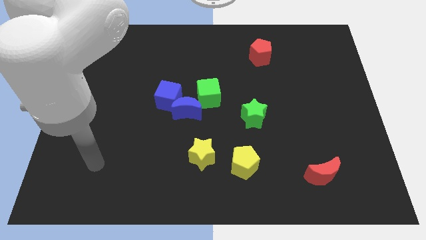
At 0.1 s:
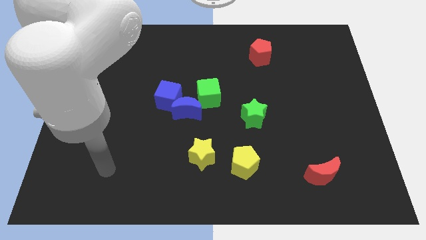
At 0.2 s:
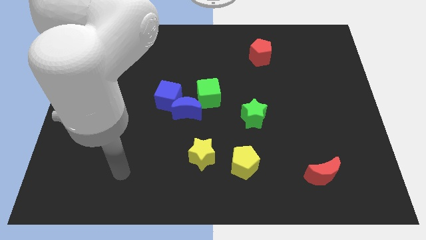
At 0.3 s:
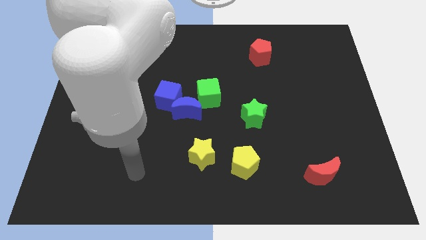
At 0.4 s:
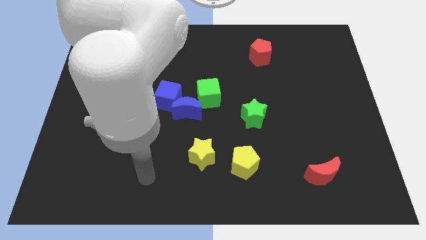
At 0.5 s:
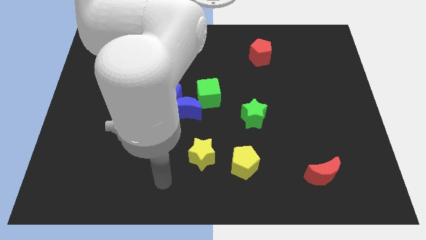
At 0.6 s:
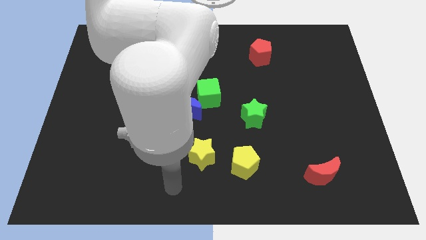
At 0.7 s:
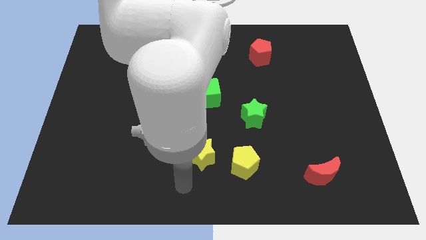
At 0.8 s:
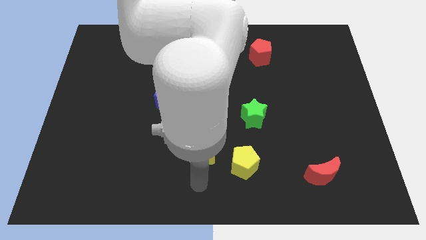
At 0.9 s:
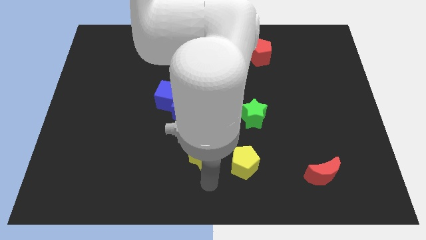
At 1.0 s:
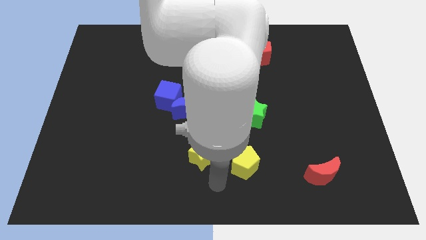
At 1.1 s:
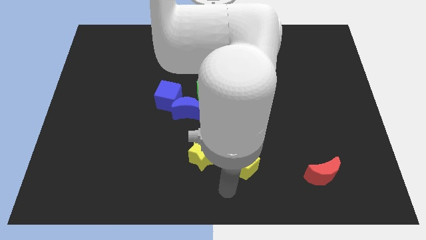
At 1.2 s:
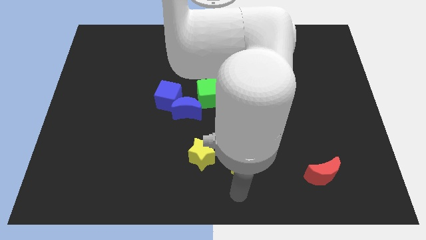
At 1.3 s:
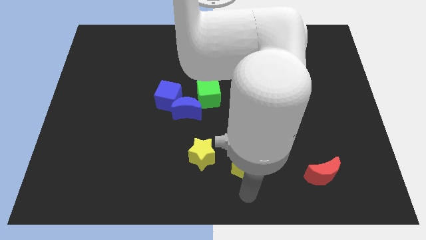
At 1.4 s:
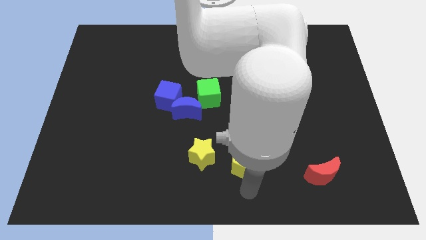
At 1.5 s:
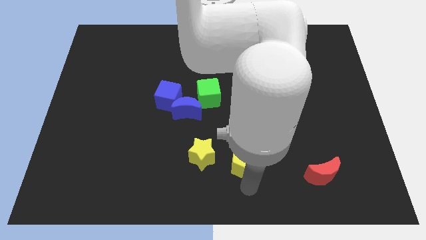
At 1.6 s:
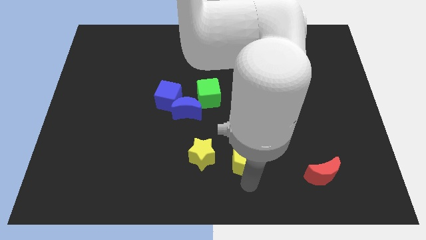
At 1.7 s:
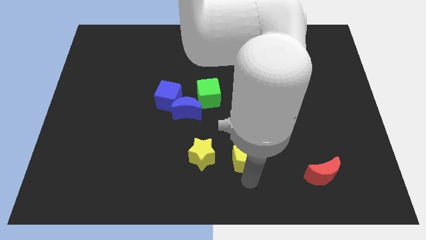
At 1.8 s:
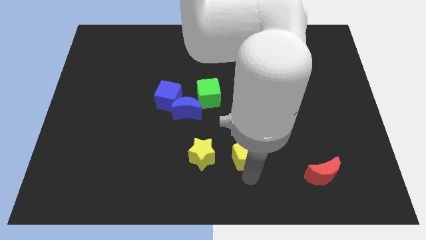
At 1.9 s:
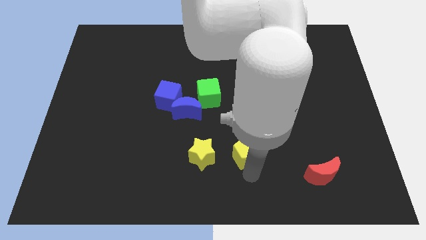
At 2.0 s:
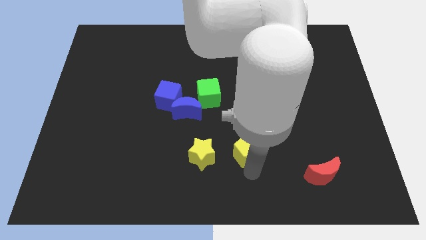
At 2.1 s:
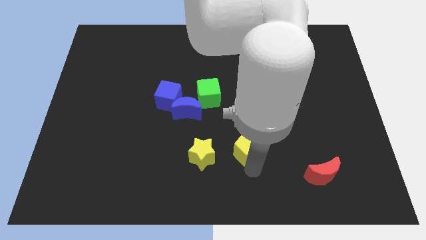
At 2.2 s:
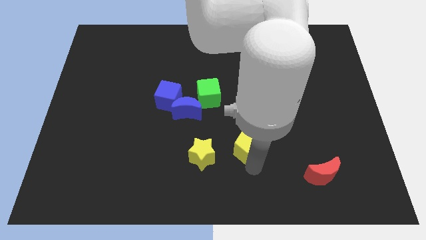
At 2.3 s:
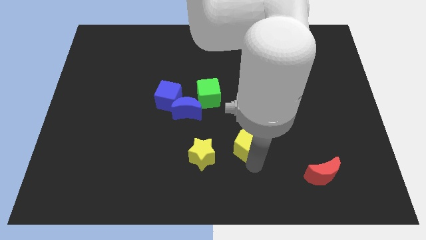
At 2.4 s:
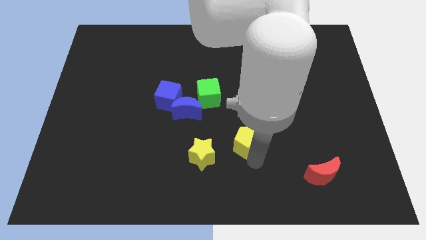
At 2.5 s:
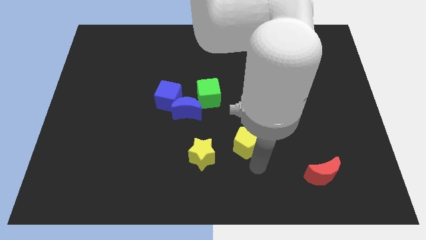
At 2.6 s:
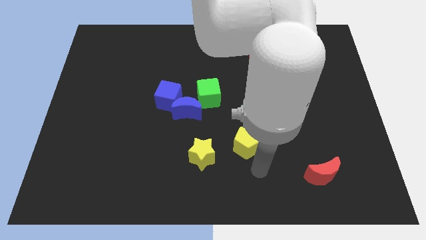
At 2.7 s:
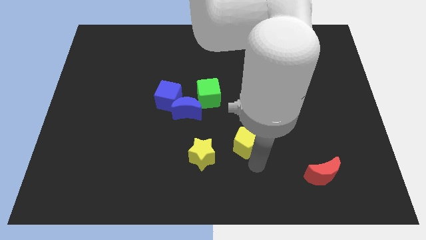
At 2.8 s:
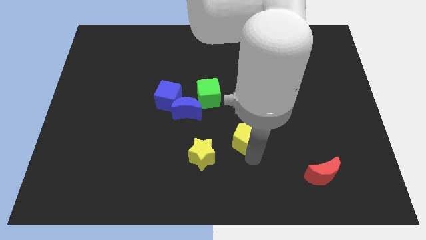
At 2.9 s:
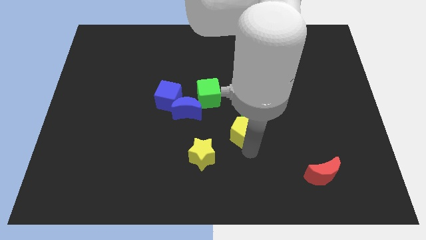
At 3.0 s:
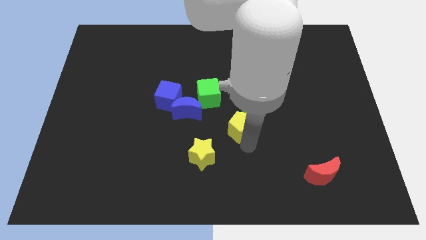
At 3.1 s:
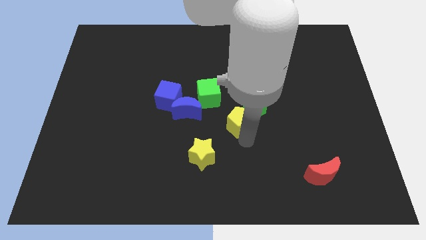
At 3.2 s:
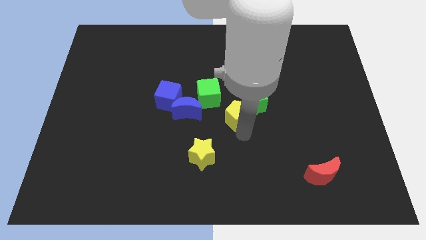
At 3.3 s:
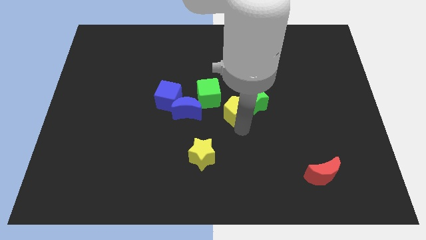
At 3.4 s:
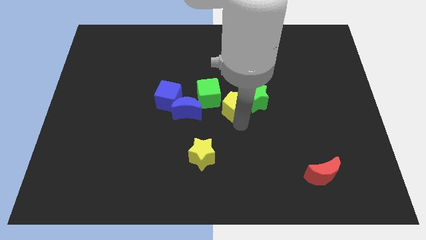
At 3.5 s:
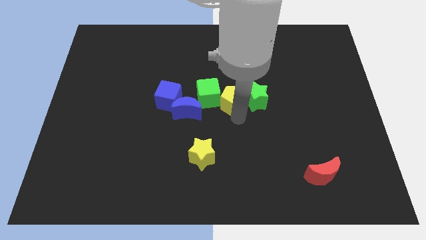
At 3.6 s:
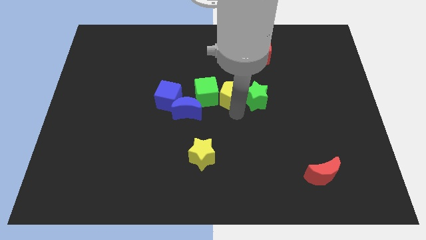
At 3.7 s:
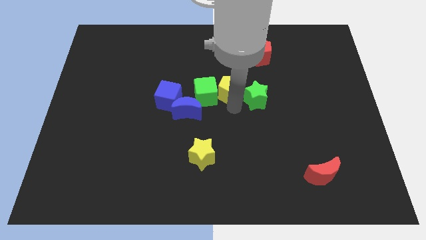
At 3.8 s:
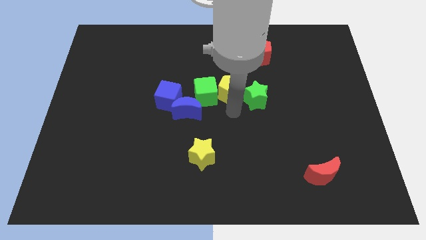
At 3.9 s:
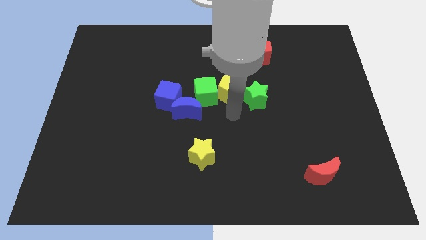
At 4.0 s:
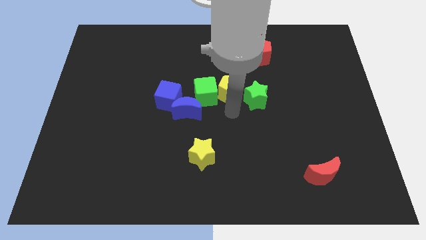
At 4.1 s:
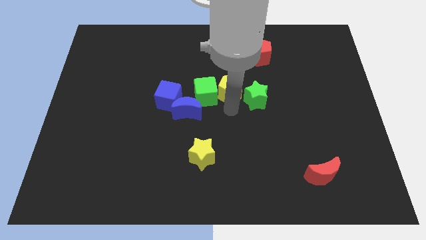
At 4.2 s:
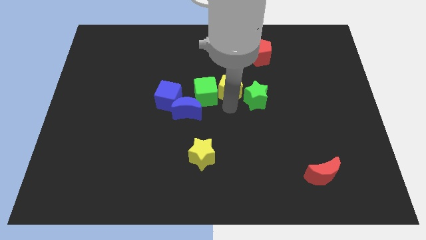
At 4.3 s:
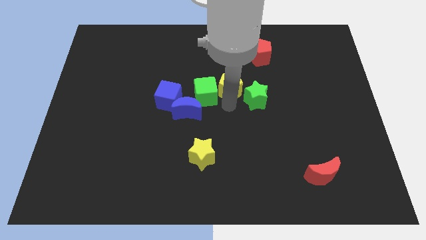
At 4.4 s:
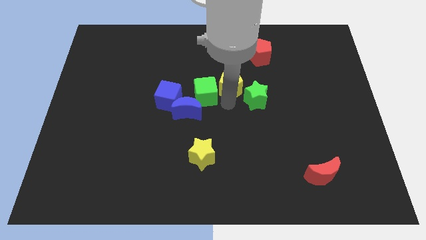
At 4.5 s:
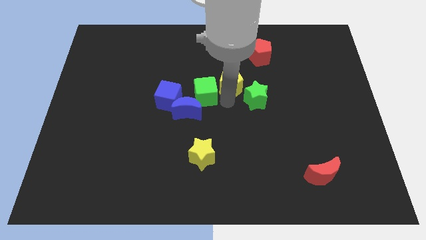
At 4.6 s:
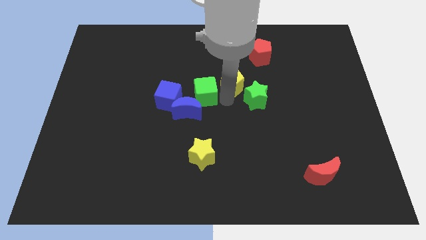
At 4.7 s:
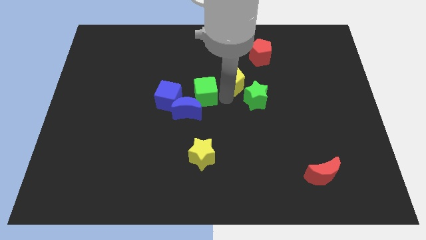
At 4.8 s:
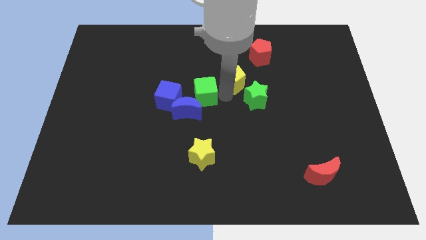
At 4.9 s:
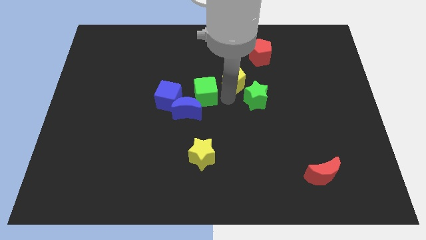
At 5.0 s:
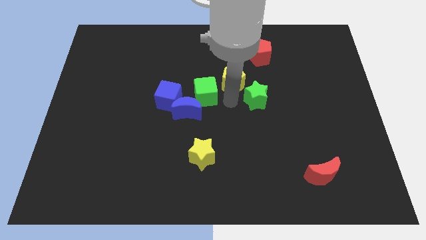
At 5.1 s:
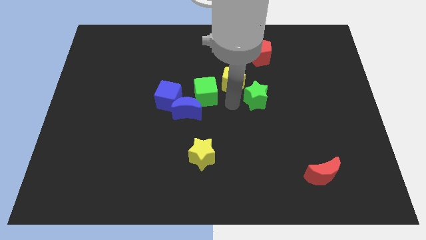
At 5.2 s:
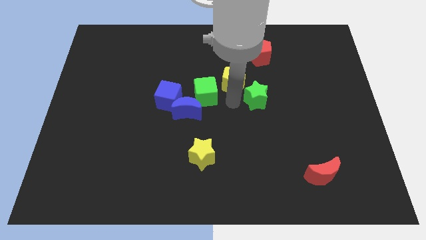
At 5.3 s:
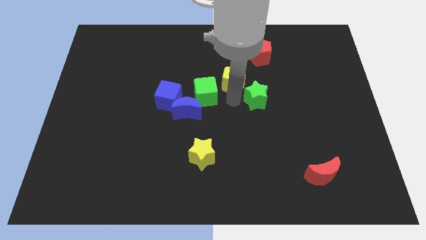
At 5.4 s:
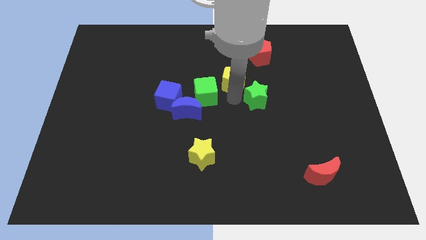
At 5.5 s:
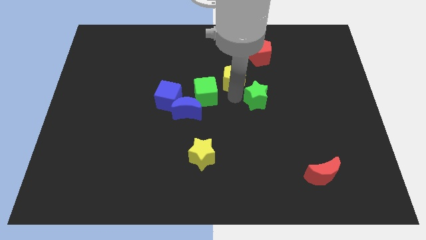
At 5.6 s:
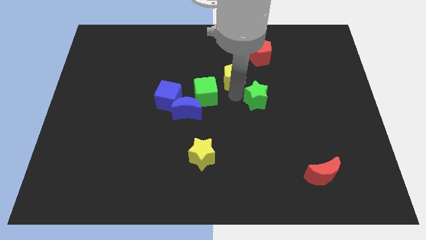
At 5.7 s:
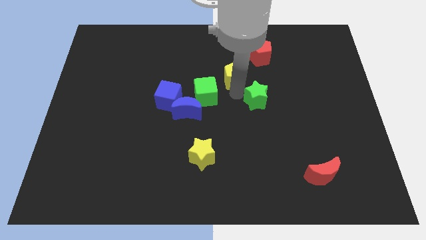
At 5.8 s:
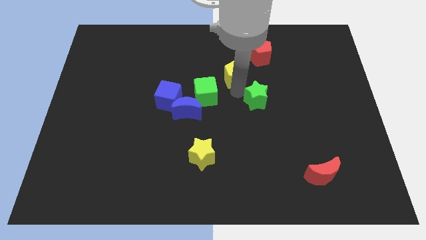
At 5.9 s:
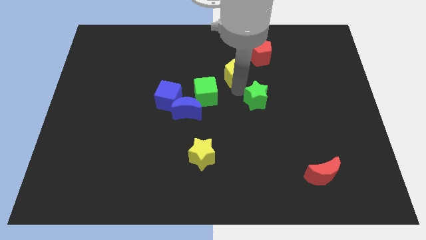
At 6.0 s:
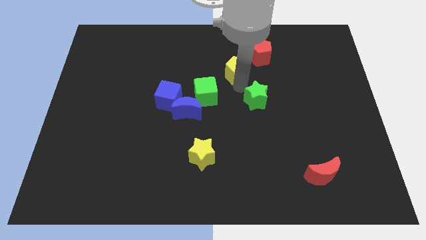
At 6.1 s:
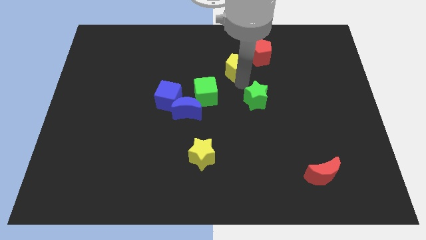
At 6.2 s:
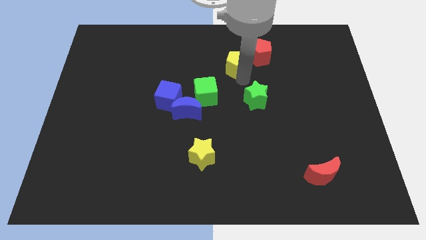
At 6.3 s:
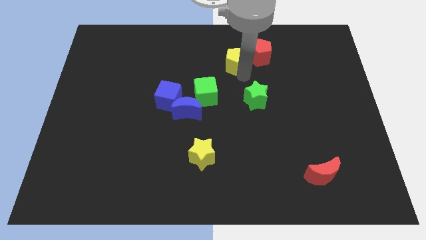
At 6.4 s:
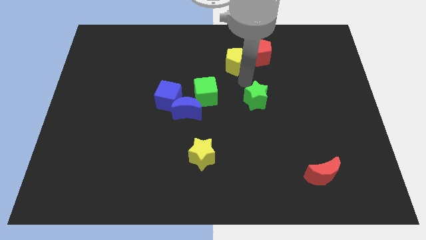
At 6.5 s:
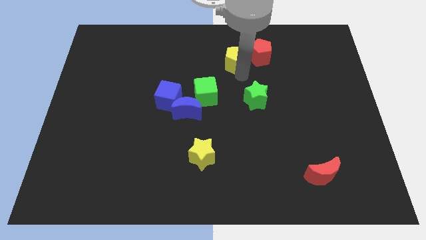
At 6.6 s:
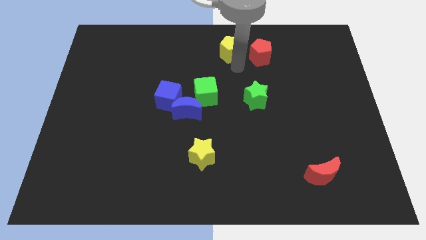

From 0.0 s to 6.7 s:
push the yellow pentagon to the top
